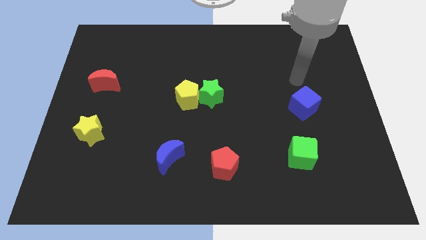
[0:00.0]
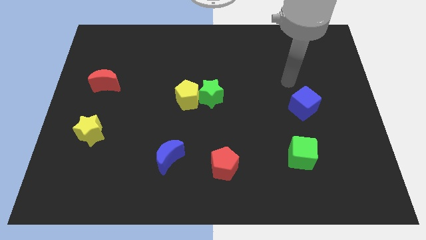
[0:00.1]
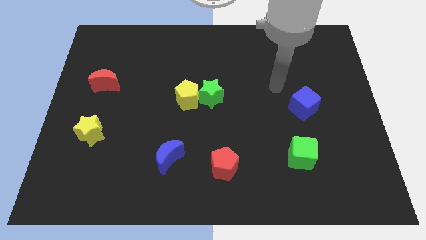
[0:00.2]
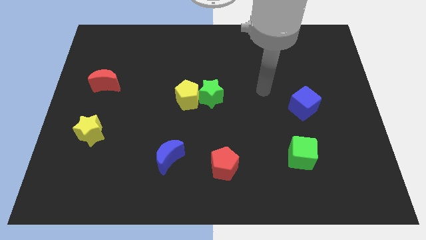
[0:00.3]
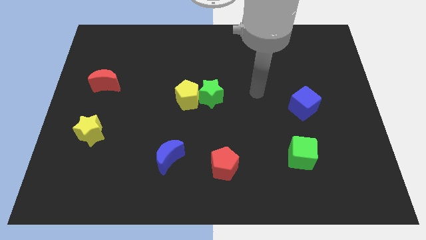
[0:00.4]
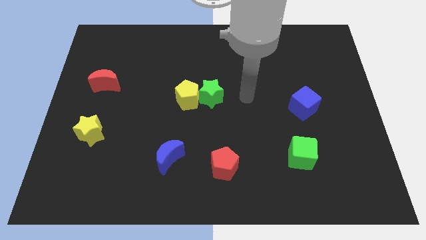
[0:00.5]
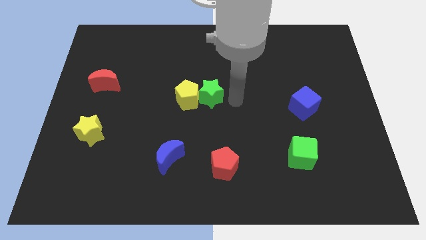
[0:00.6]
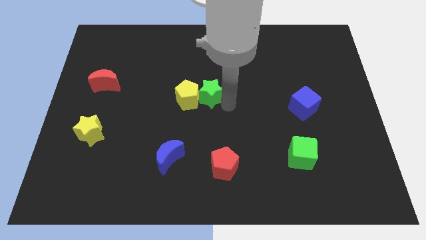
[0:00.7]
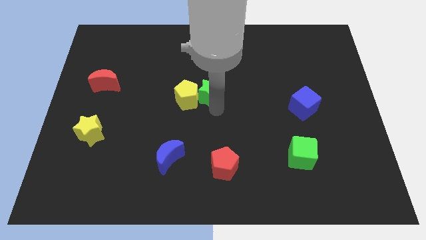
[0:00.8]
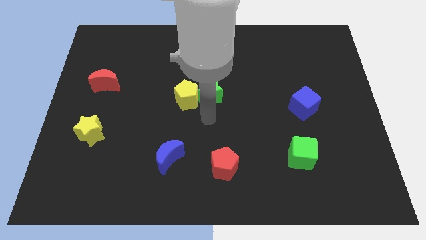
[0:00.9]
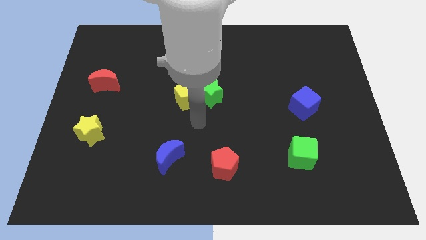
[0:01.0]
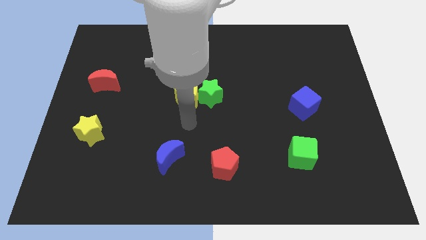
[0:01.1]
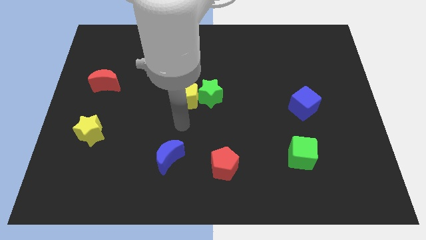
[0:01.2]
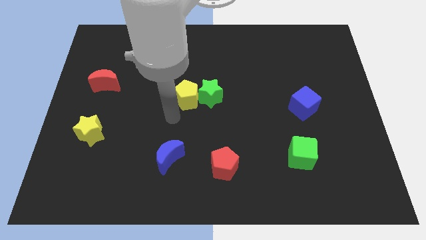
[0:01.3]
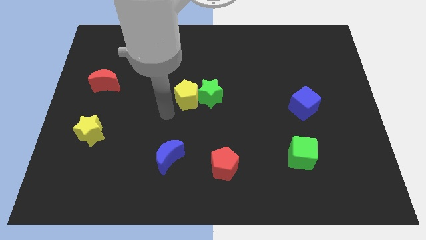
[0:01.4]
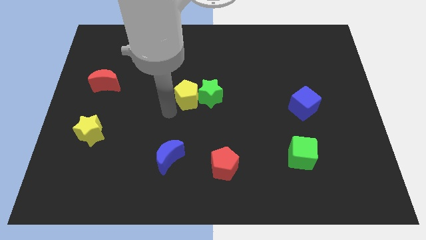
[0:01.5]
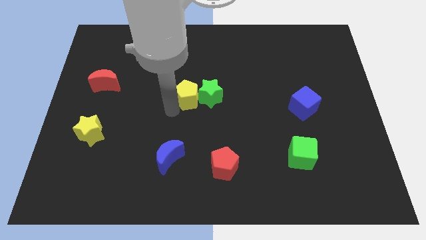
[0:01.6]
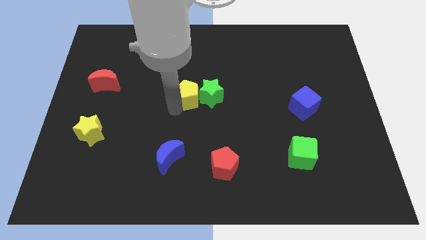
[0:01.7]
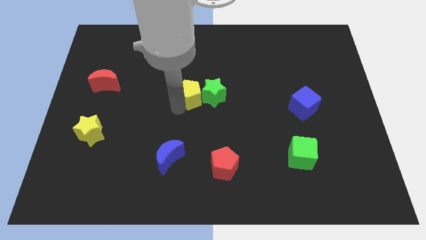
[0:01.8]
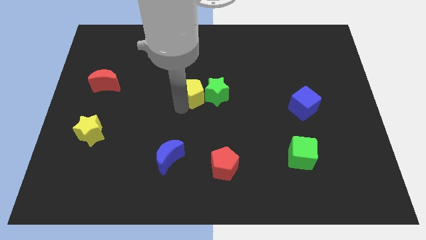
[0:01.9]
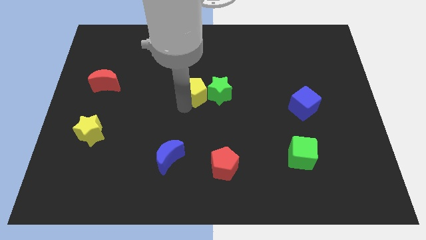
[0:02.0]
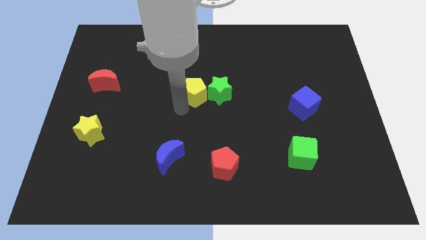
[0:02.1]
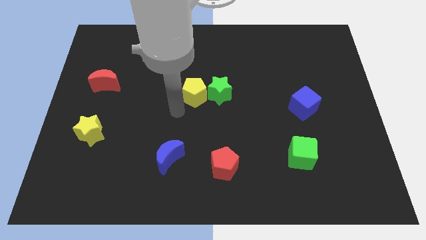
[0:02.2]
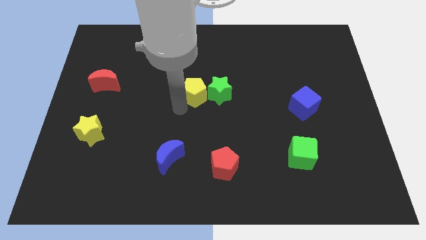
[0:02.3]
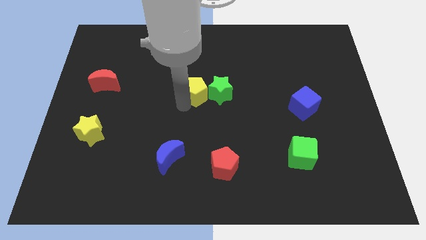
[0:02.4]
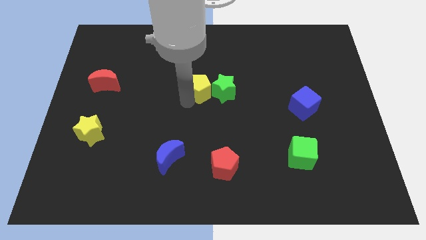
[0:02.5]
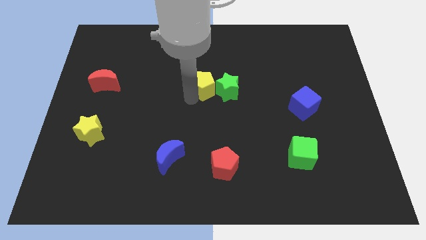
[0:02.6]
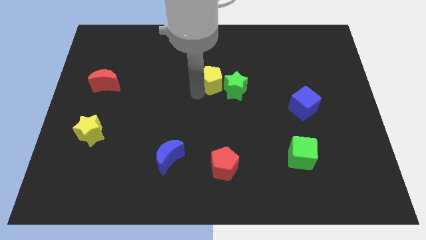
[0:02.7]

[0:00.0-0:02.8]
slightly push the yellow pentagon upwards and to the right

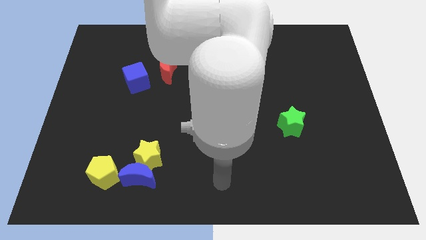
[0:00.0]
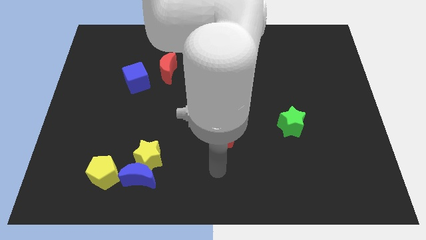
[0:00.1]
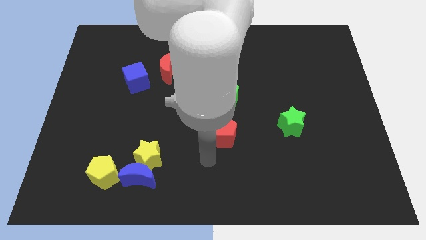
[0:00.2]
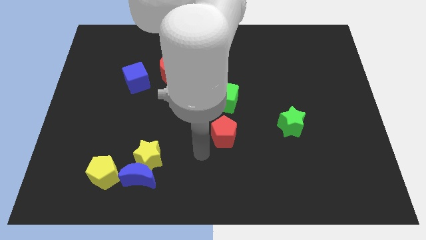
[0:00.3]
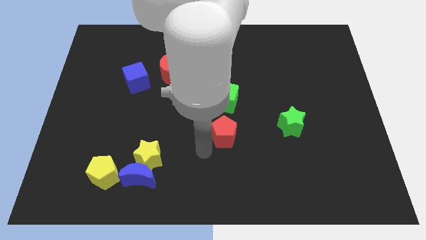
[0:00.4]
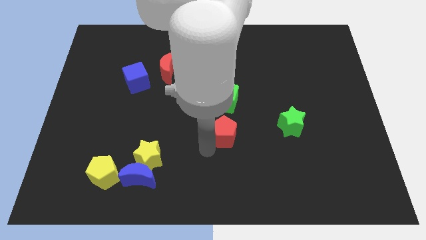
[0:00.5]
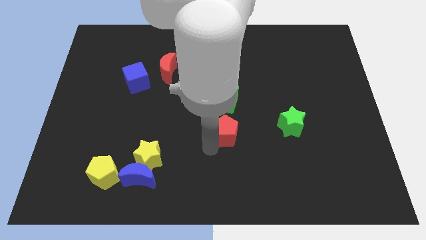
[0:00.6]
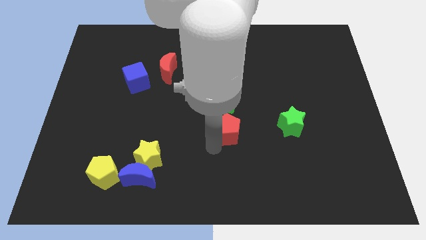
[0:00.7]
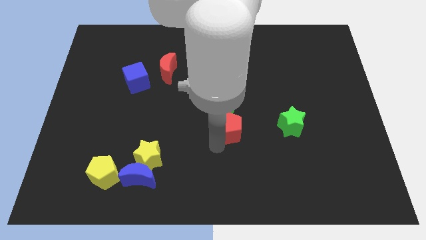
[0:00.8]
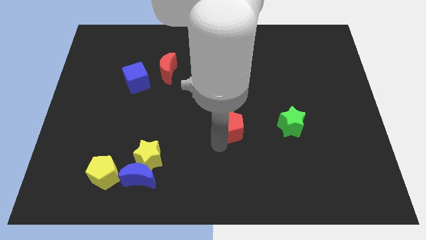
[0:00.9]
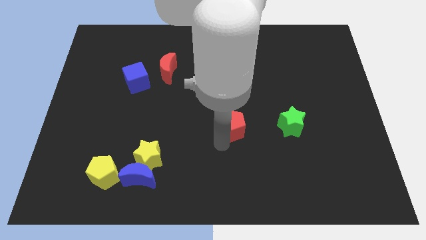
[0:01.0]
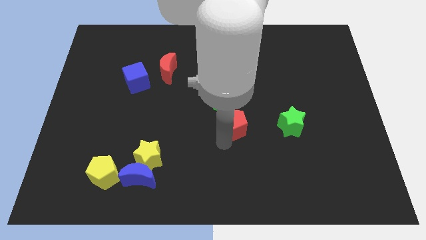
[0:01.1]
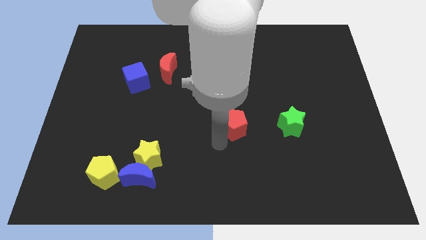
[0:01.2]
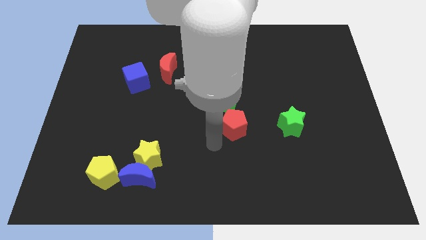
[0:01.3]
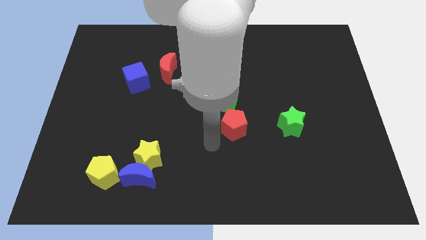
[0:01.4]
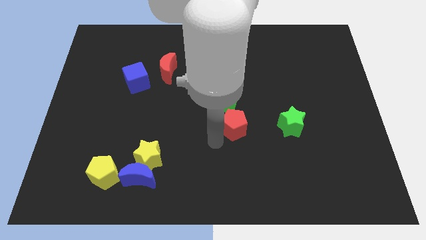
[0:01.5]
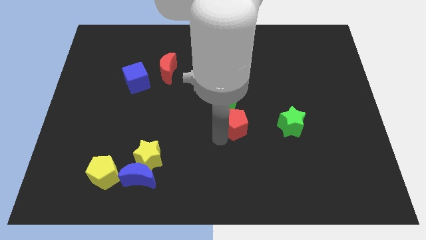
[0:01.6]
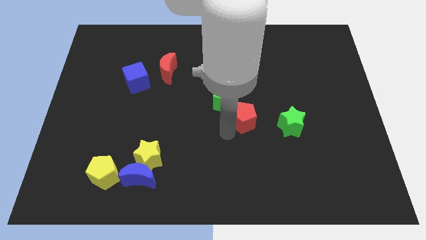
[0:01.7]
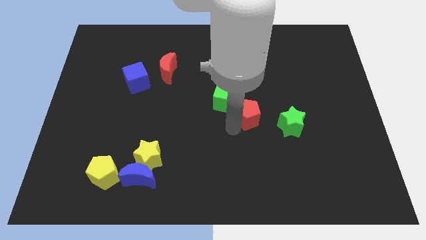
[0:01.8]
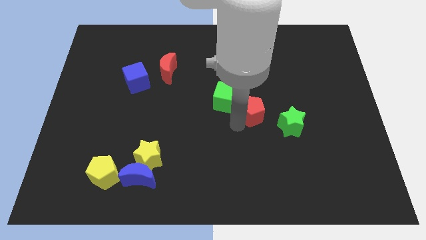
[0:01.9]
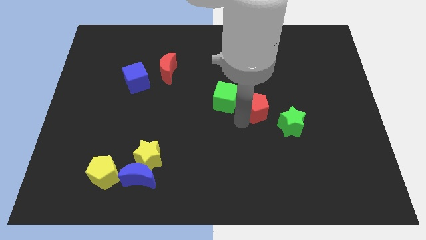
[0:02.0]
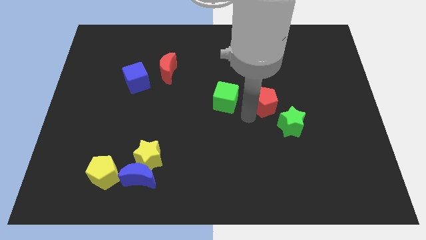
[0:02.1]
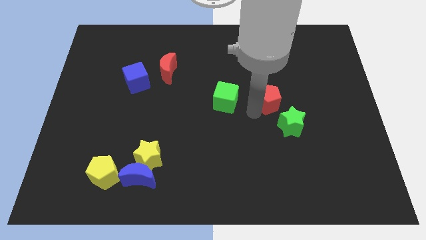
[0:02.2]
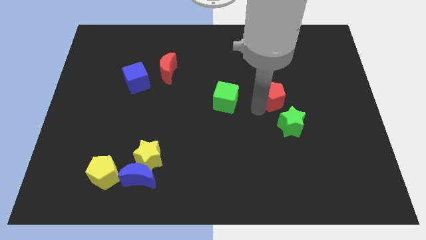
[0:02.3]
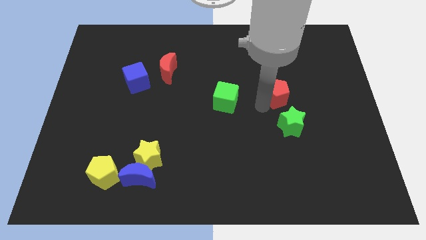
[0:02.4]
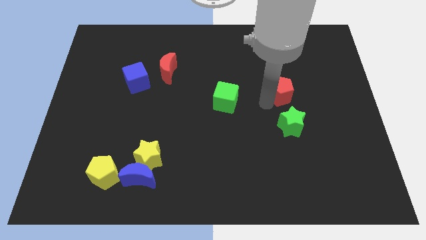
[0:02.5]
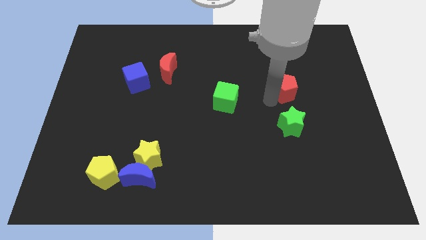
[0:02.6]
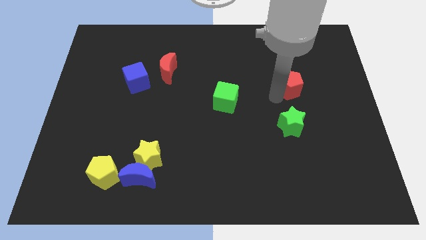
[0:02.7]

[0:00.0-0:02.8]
move the red pentagon up and right diagonally

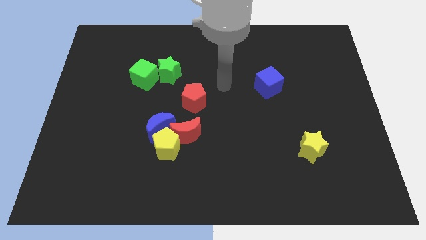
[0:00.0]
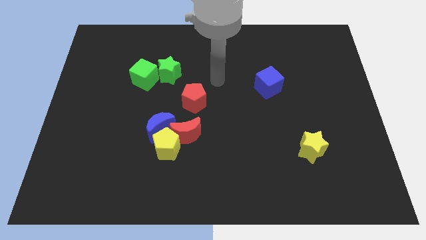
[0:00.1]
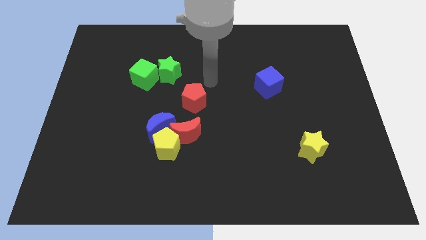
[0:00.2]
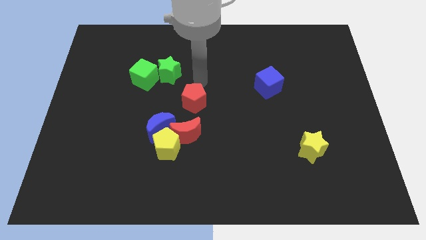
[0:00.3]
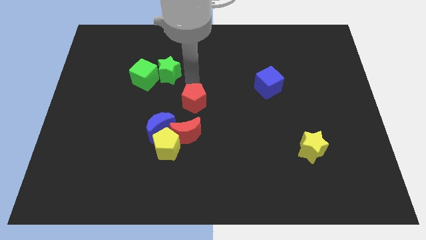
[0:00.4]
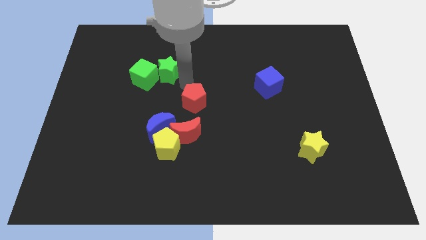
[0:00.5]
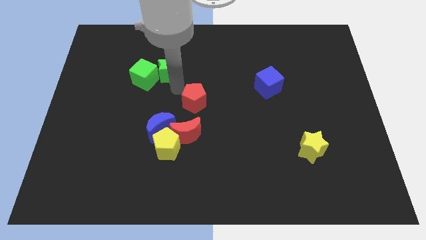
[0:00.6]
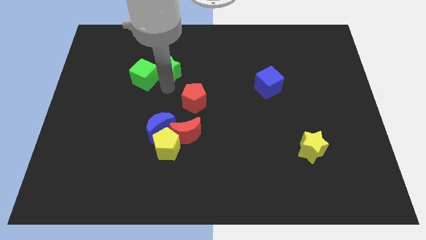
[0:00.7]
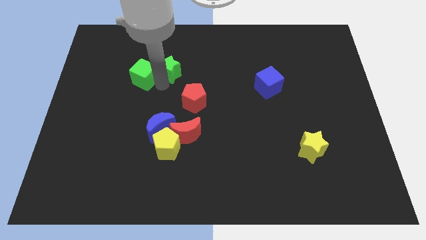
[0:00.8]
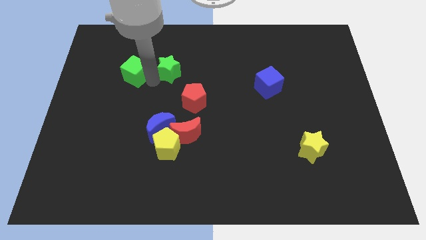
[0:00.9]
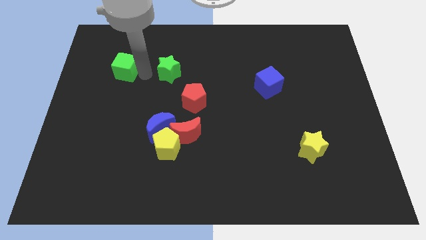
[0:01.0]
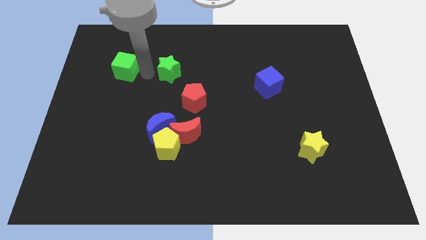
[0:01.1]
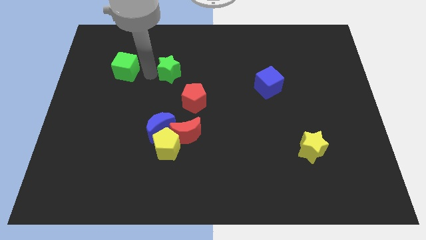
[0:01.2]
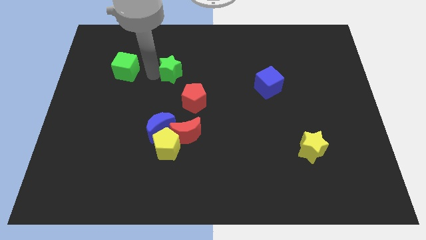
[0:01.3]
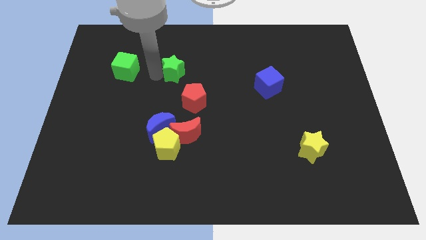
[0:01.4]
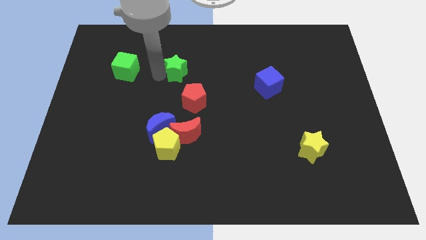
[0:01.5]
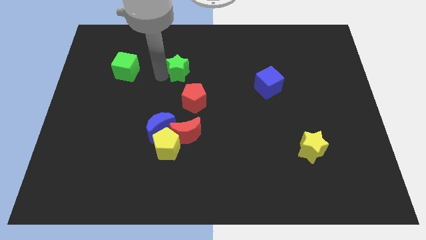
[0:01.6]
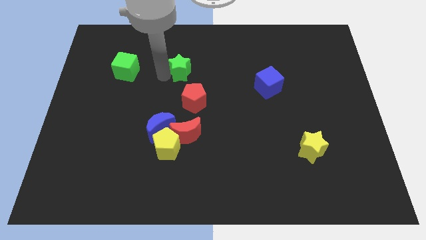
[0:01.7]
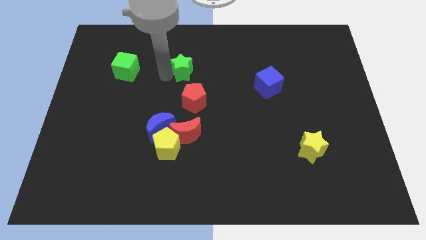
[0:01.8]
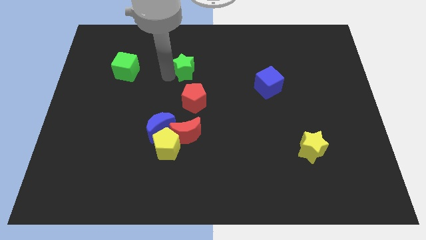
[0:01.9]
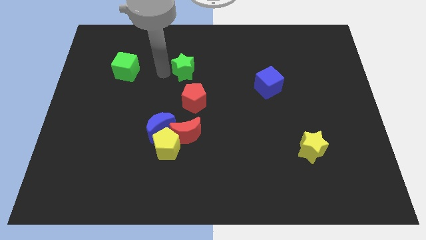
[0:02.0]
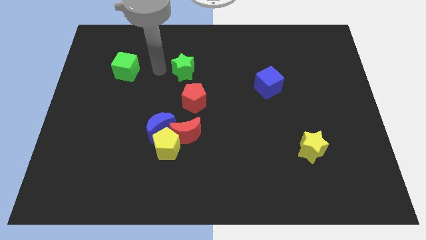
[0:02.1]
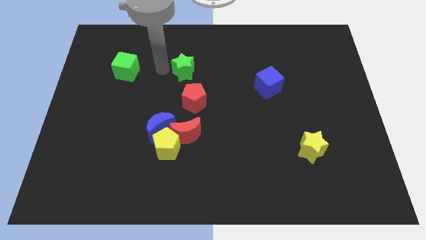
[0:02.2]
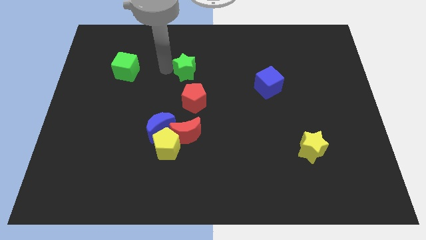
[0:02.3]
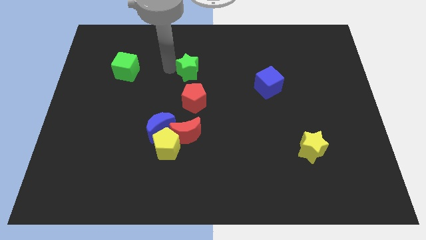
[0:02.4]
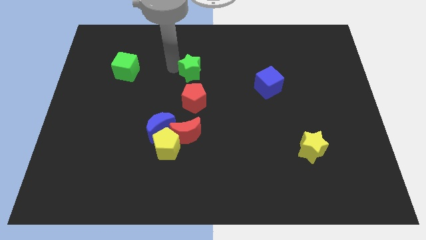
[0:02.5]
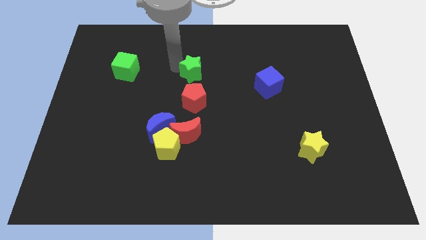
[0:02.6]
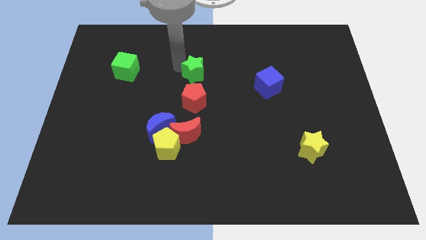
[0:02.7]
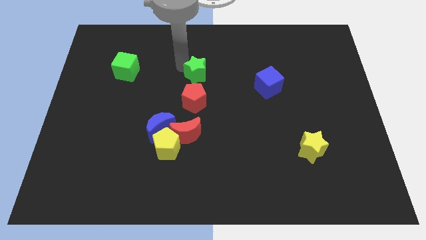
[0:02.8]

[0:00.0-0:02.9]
push the green star slightly to the right
